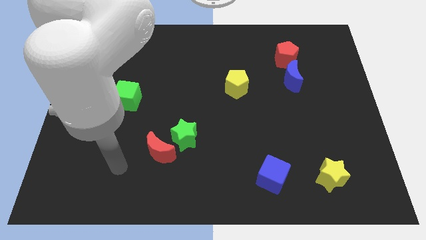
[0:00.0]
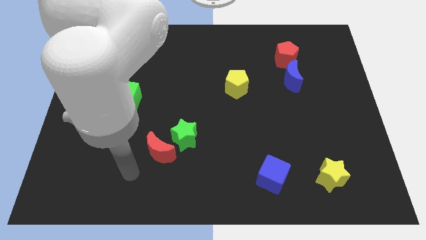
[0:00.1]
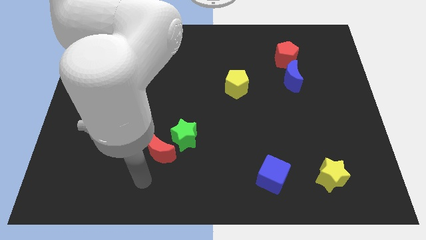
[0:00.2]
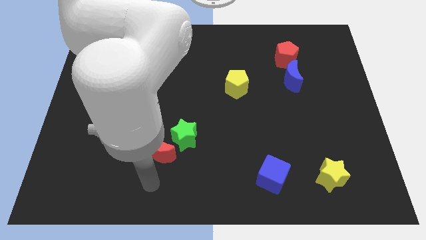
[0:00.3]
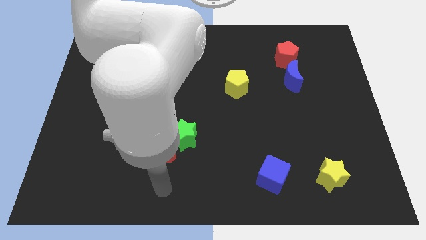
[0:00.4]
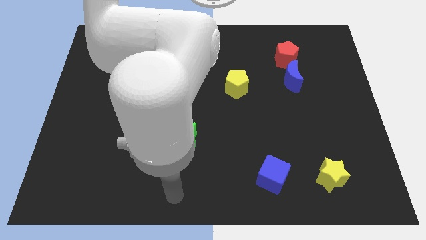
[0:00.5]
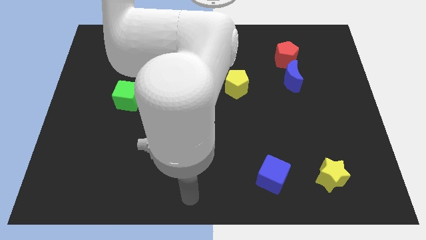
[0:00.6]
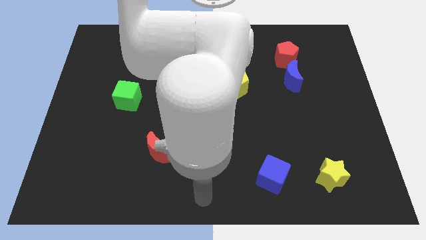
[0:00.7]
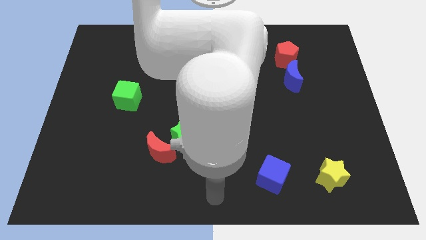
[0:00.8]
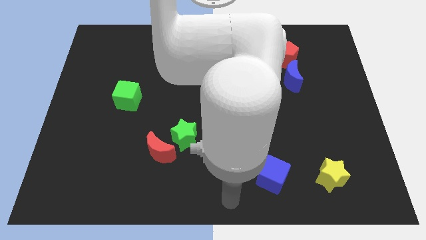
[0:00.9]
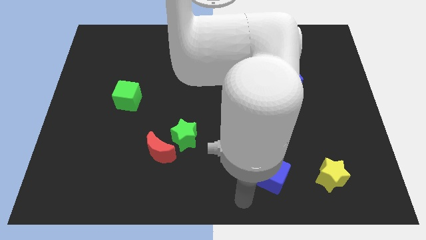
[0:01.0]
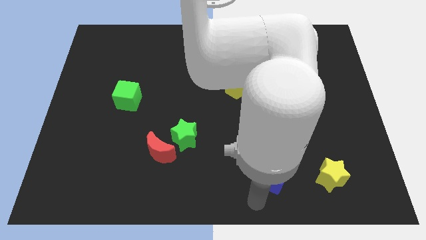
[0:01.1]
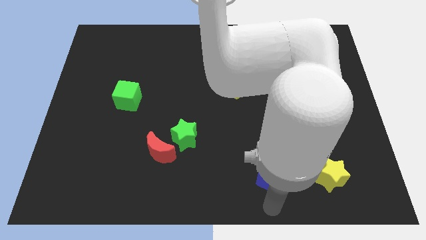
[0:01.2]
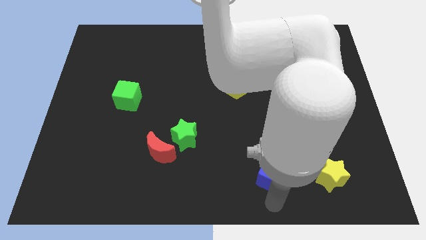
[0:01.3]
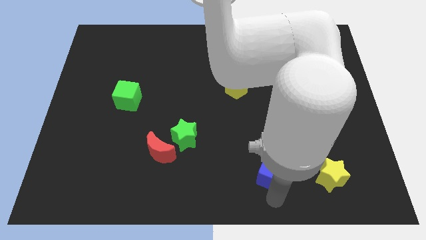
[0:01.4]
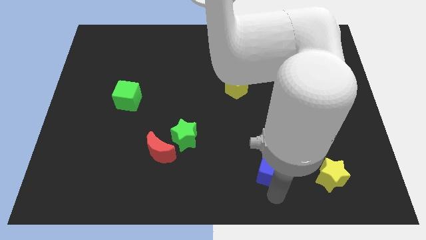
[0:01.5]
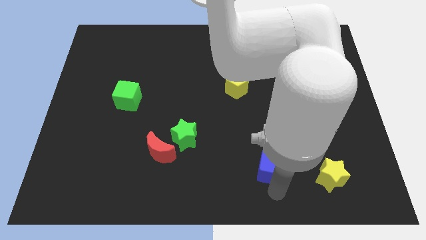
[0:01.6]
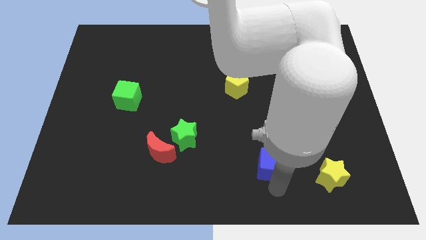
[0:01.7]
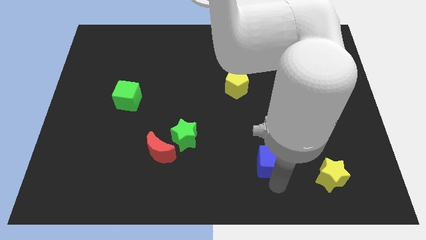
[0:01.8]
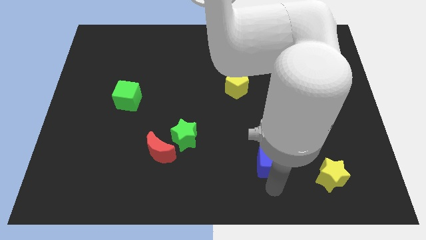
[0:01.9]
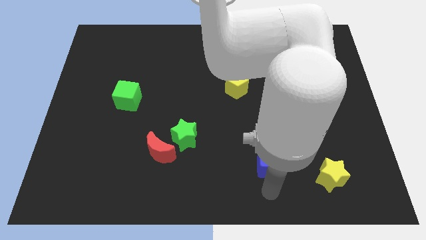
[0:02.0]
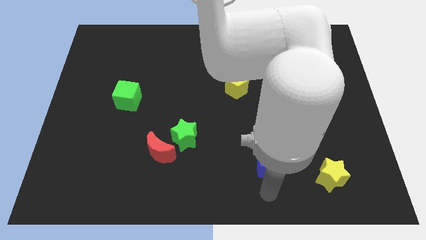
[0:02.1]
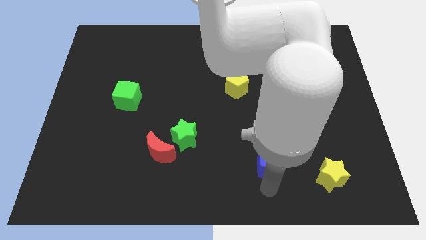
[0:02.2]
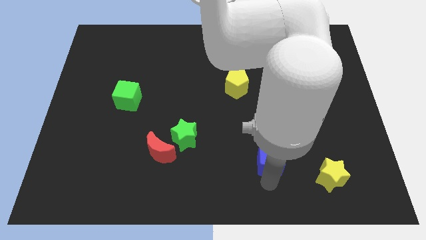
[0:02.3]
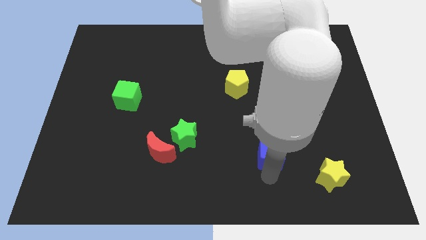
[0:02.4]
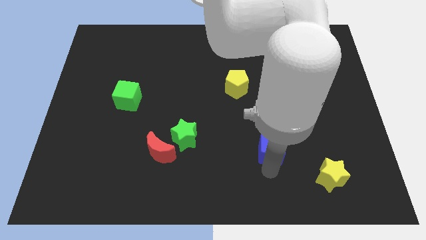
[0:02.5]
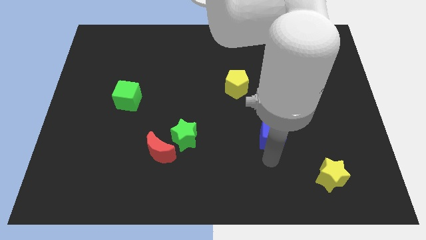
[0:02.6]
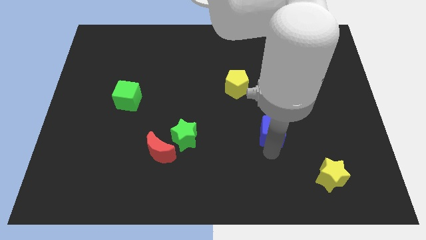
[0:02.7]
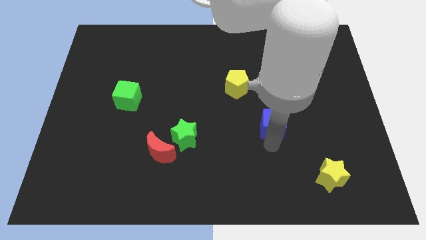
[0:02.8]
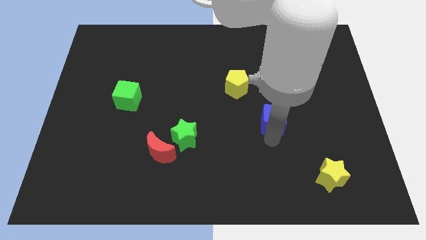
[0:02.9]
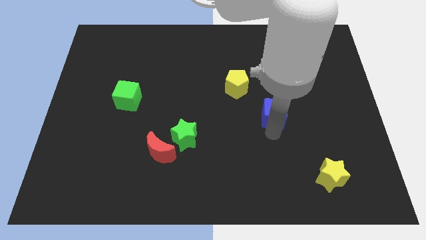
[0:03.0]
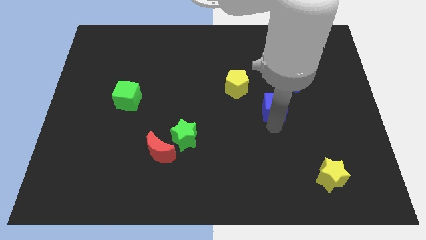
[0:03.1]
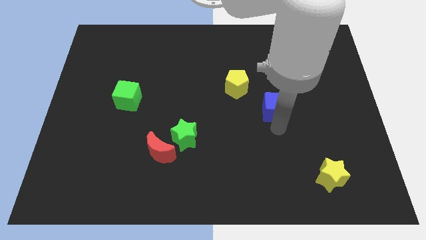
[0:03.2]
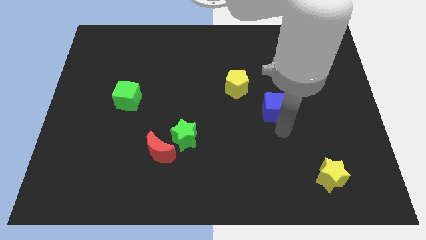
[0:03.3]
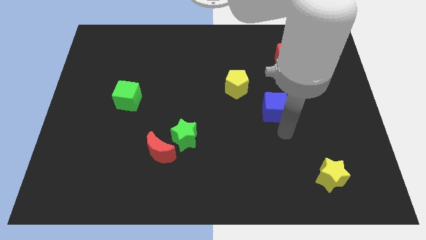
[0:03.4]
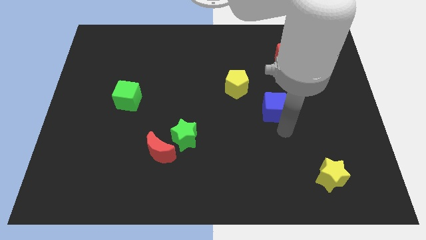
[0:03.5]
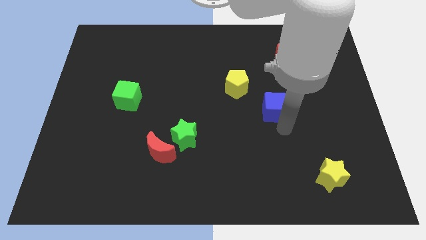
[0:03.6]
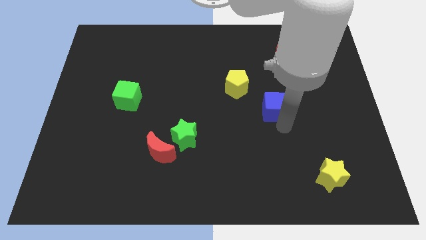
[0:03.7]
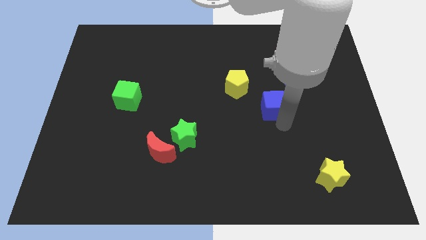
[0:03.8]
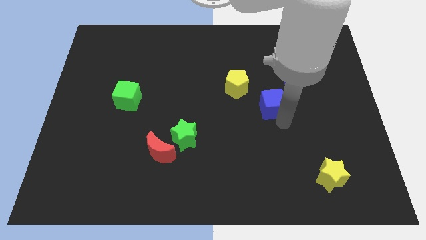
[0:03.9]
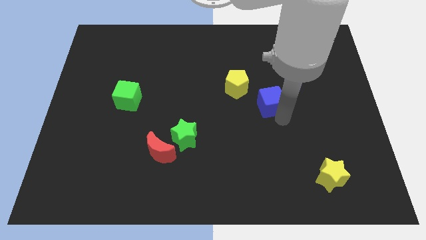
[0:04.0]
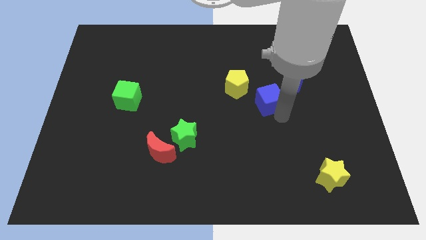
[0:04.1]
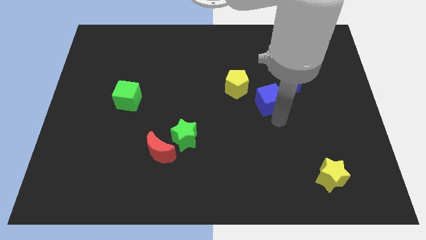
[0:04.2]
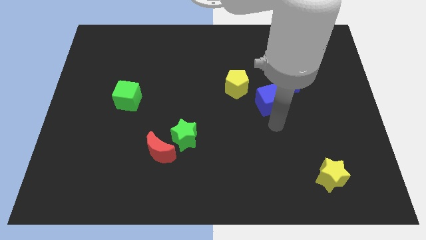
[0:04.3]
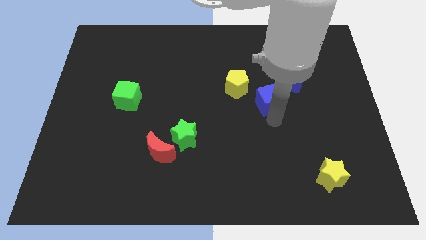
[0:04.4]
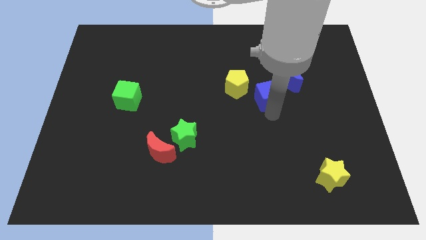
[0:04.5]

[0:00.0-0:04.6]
slide the blue cube upwards

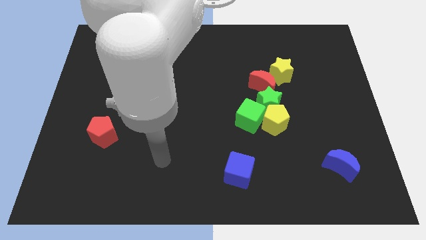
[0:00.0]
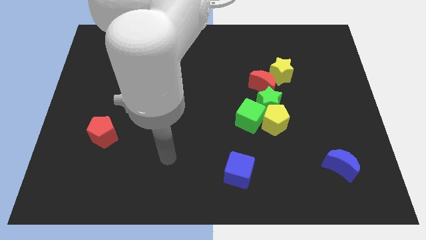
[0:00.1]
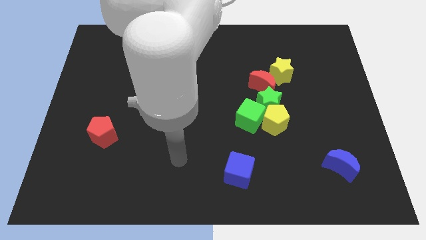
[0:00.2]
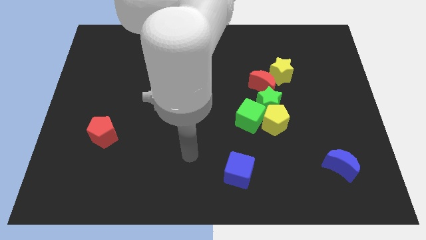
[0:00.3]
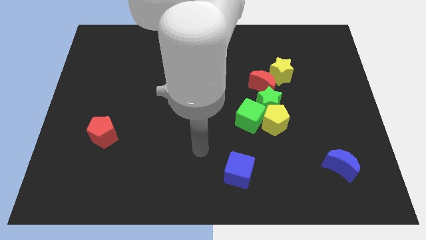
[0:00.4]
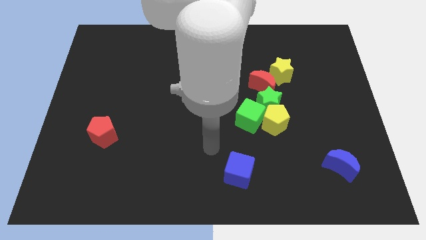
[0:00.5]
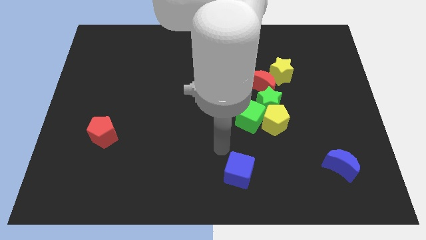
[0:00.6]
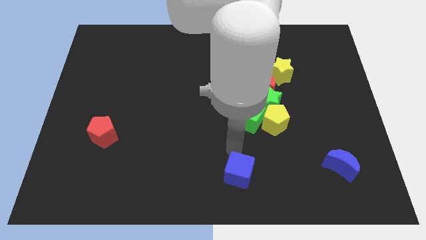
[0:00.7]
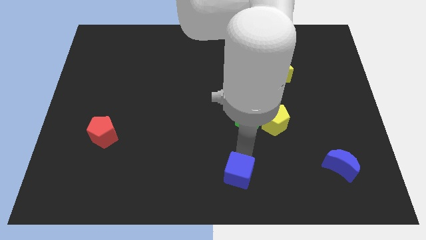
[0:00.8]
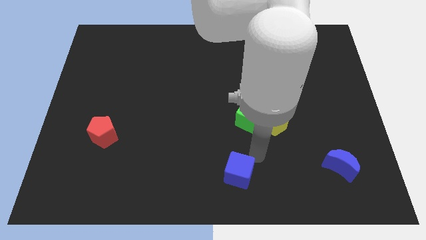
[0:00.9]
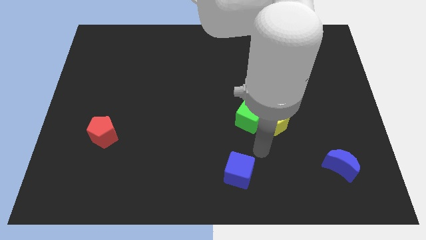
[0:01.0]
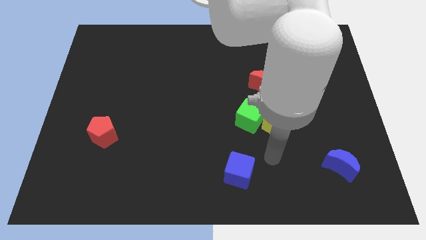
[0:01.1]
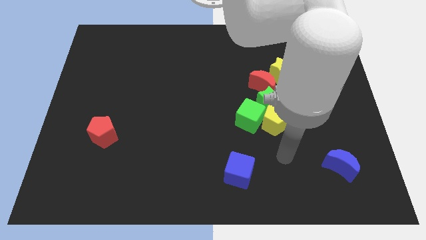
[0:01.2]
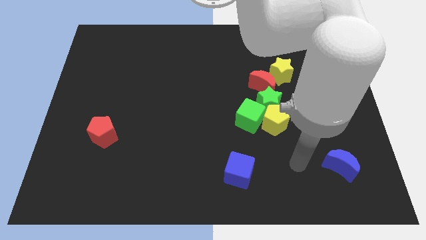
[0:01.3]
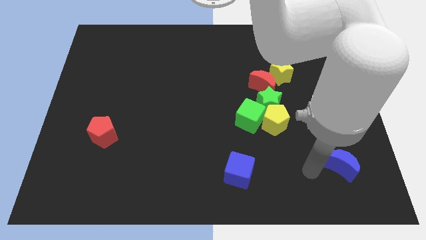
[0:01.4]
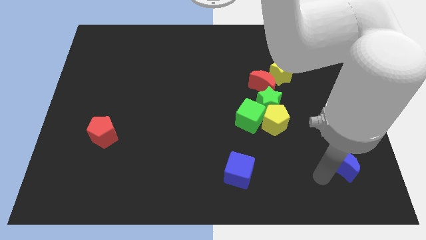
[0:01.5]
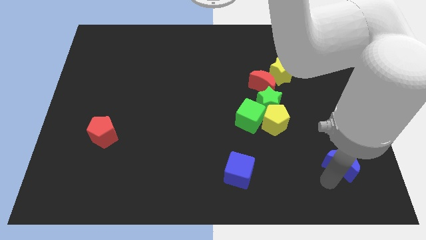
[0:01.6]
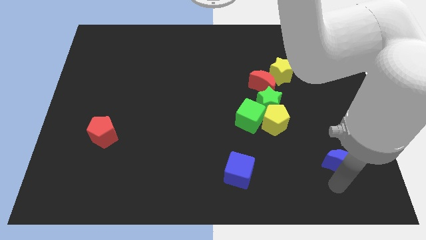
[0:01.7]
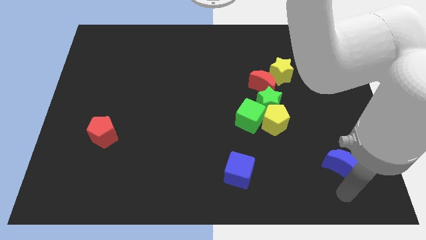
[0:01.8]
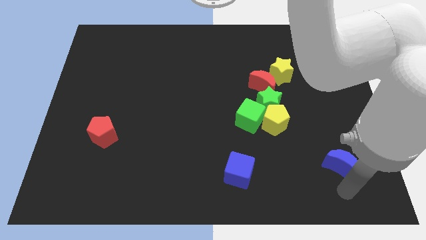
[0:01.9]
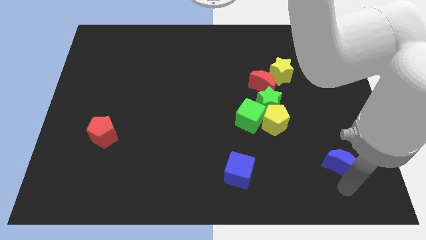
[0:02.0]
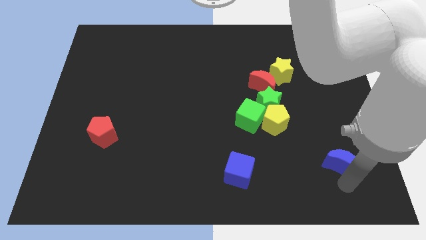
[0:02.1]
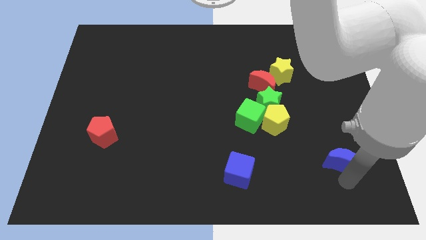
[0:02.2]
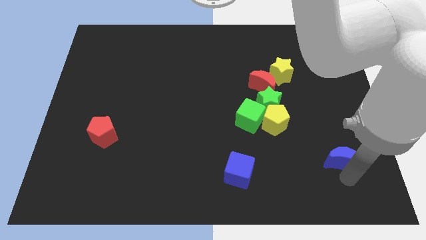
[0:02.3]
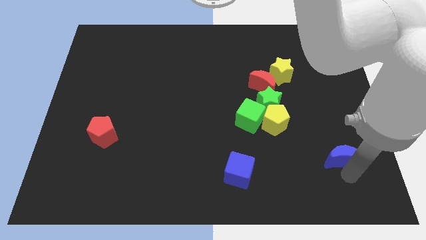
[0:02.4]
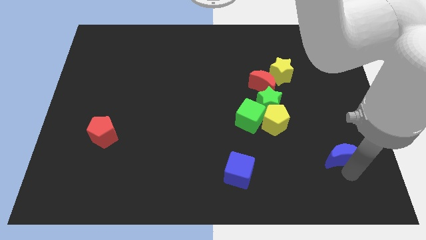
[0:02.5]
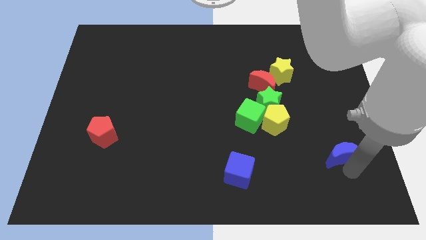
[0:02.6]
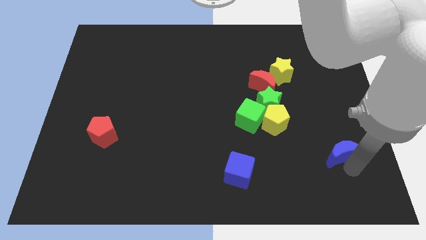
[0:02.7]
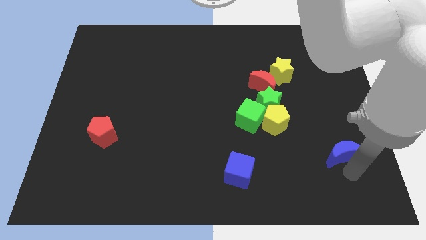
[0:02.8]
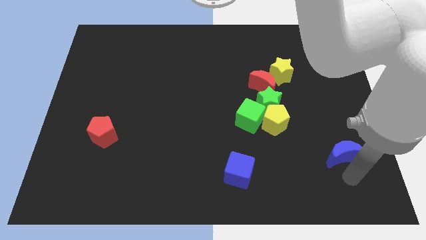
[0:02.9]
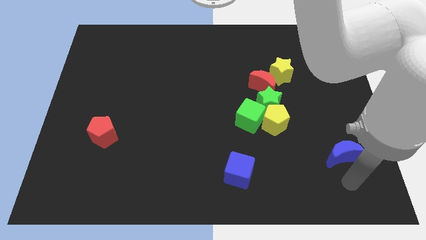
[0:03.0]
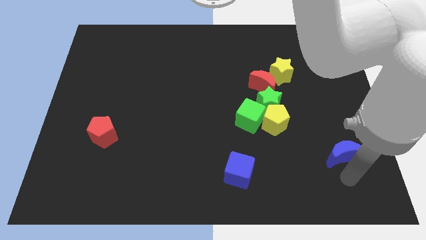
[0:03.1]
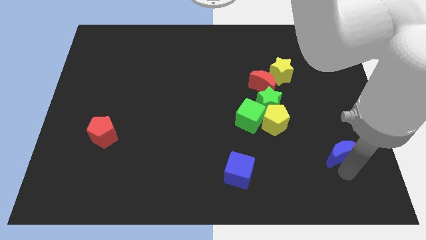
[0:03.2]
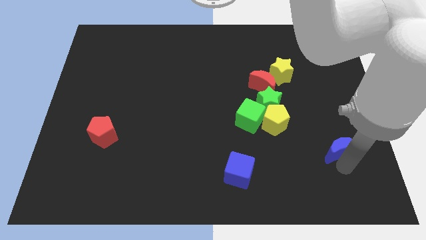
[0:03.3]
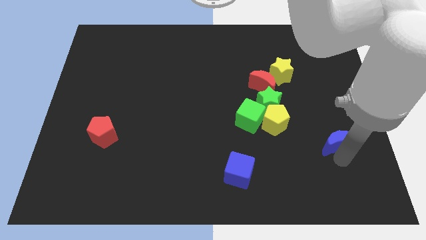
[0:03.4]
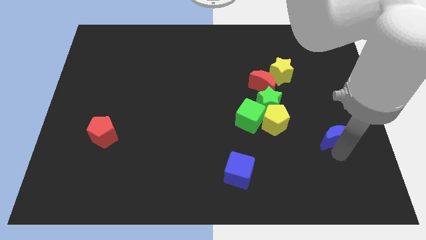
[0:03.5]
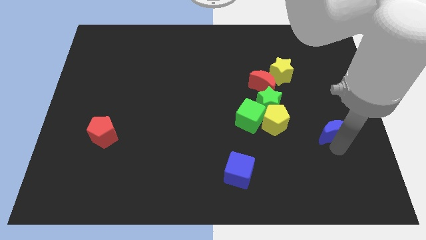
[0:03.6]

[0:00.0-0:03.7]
slide the blue moon up somewhat
